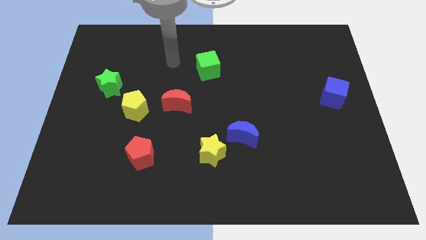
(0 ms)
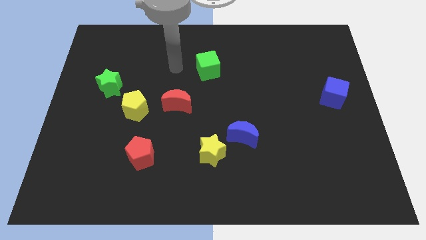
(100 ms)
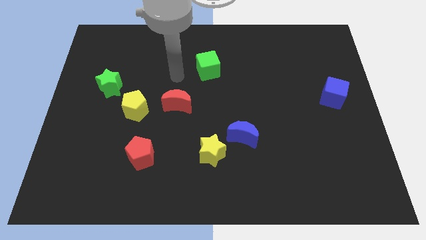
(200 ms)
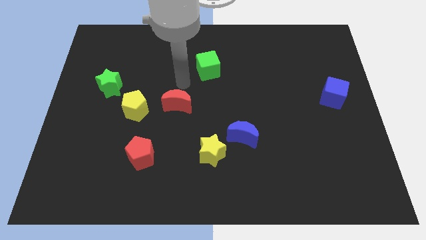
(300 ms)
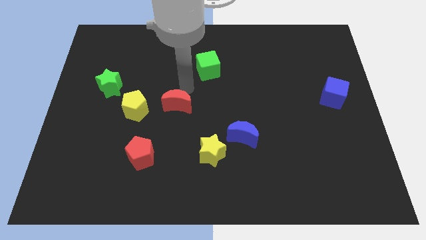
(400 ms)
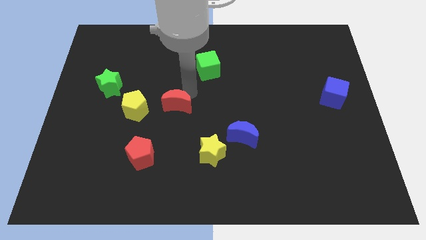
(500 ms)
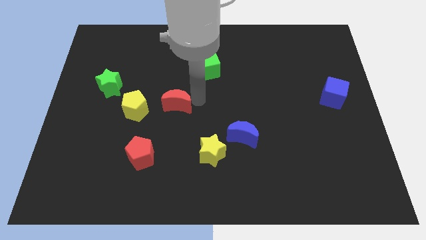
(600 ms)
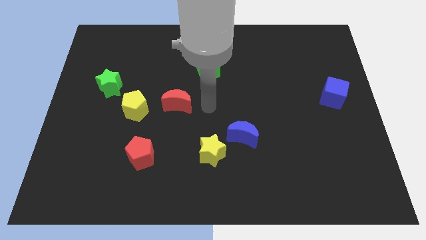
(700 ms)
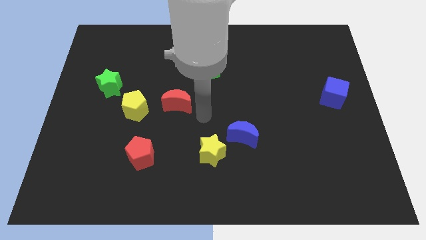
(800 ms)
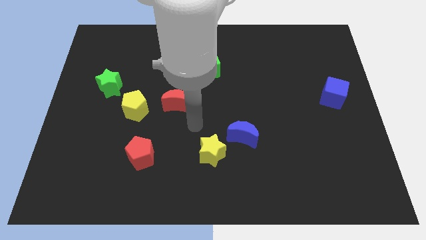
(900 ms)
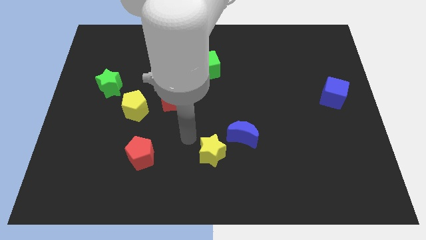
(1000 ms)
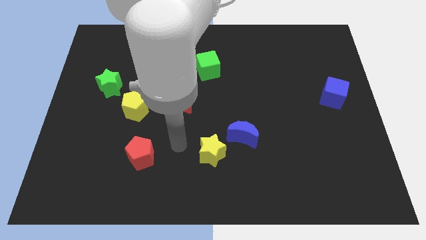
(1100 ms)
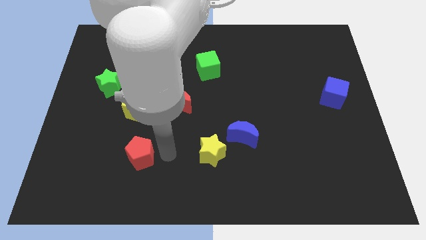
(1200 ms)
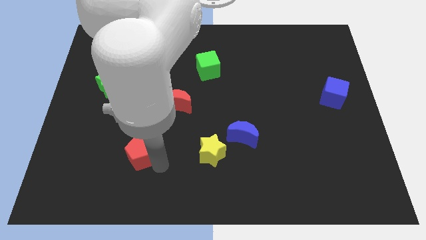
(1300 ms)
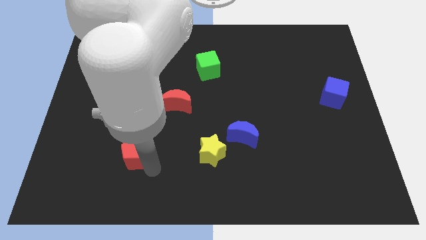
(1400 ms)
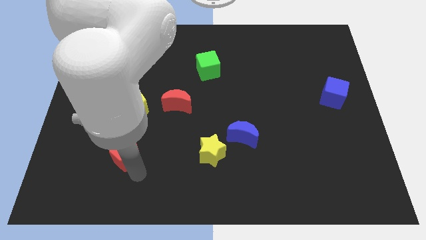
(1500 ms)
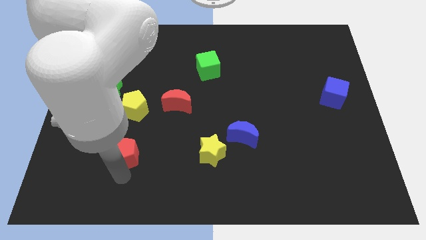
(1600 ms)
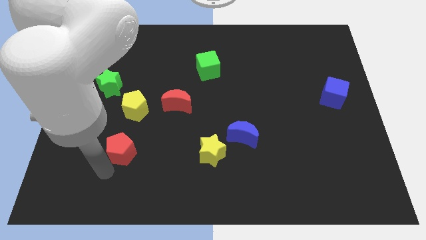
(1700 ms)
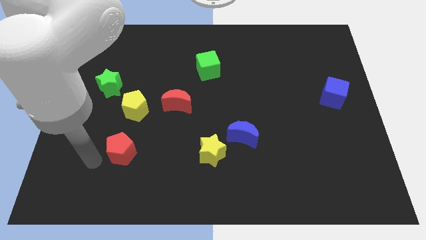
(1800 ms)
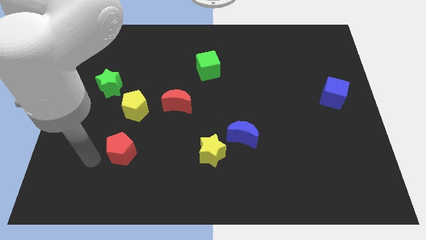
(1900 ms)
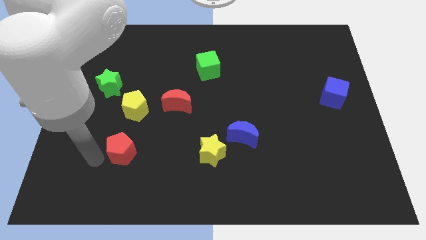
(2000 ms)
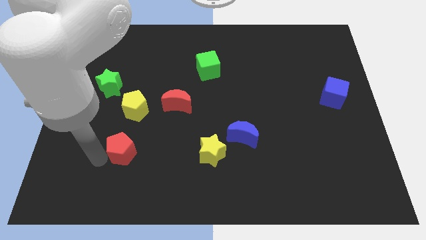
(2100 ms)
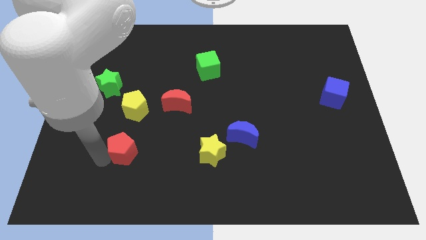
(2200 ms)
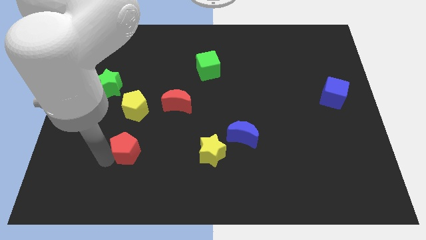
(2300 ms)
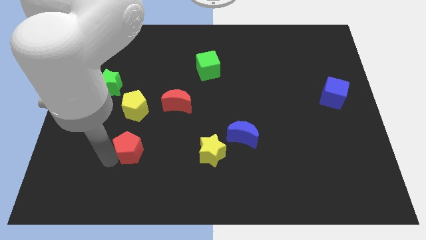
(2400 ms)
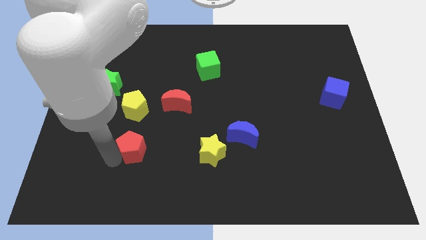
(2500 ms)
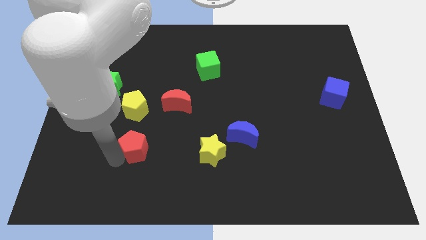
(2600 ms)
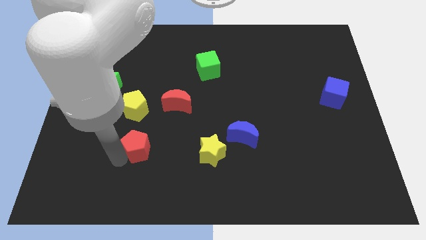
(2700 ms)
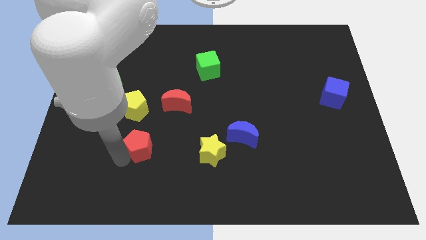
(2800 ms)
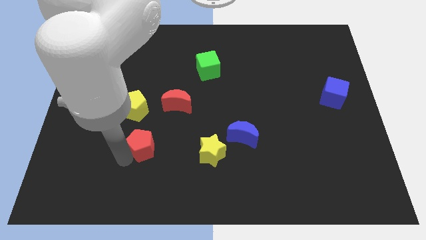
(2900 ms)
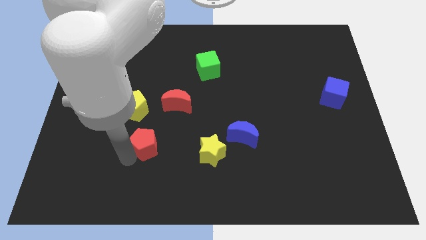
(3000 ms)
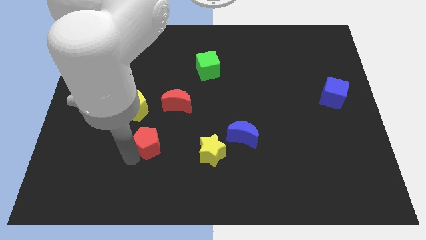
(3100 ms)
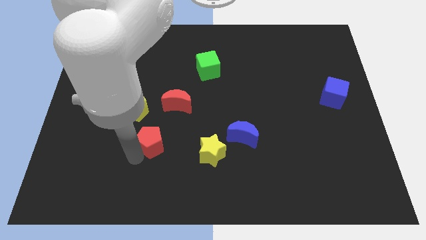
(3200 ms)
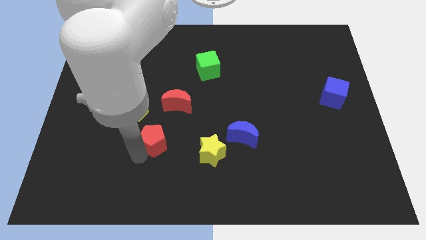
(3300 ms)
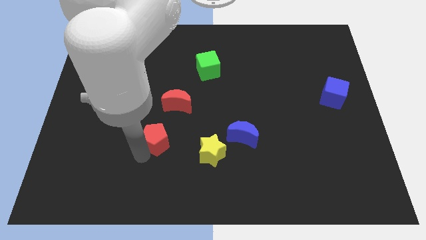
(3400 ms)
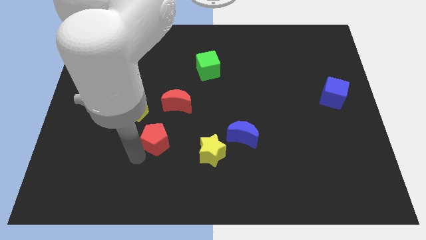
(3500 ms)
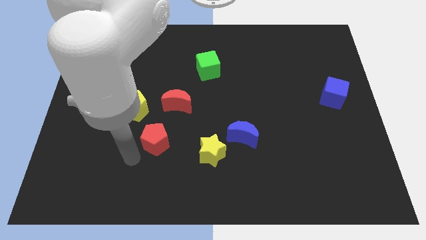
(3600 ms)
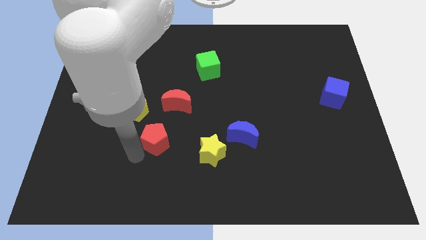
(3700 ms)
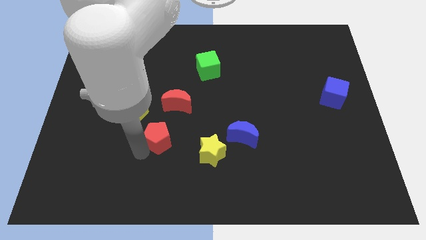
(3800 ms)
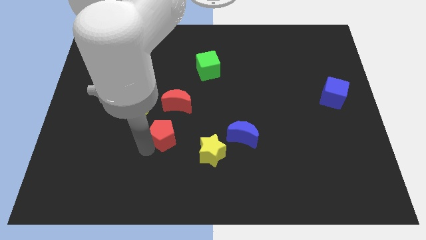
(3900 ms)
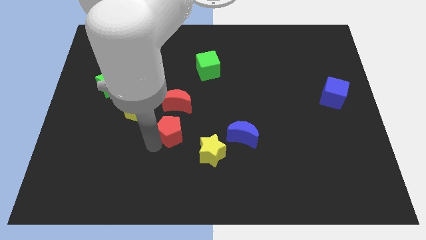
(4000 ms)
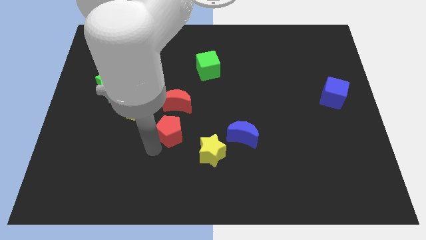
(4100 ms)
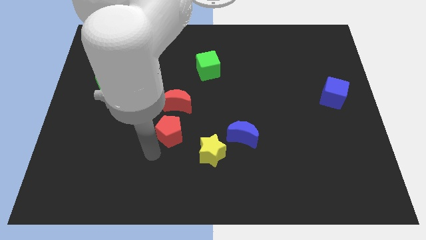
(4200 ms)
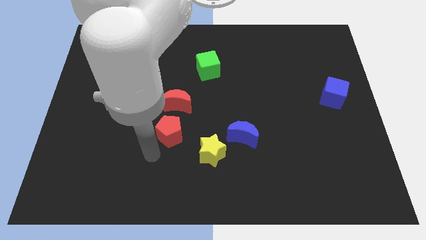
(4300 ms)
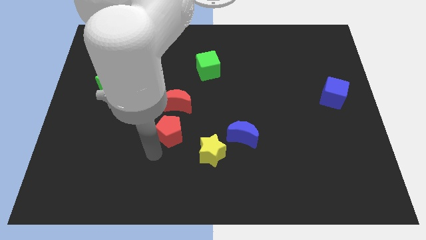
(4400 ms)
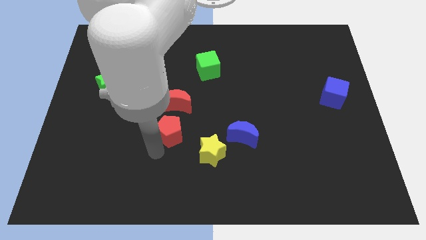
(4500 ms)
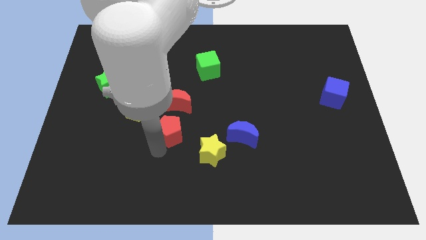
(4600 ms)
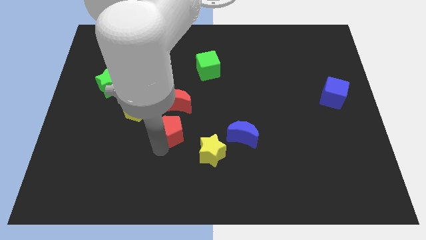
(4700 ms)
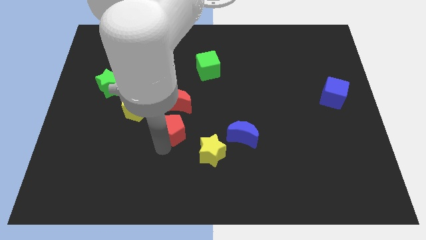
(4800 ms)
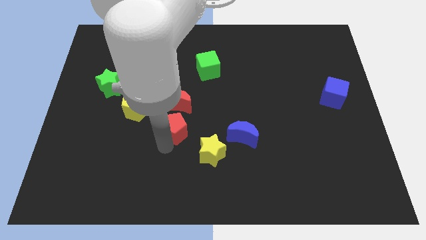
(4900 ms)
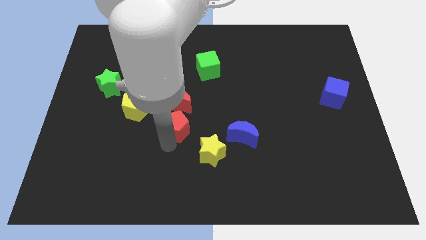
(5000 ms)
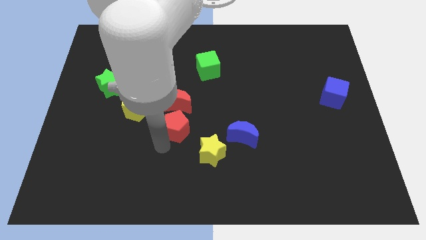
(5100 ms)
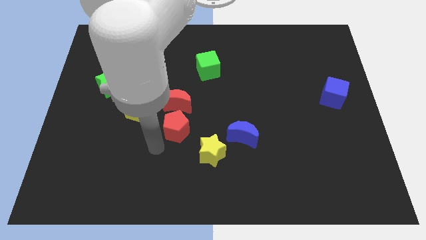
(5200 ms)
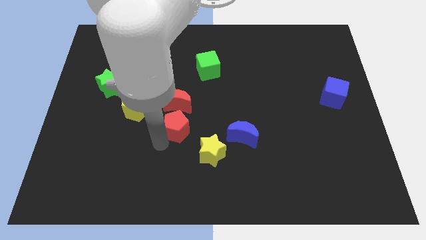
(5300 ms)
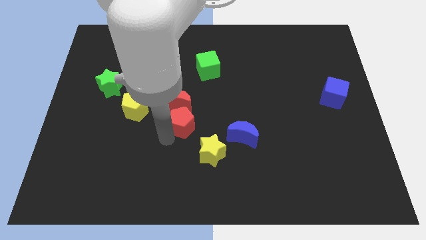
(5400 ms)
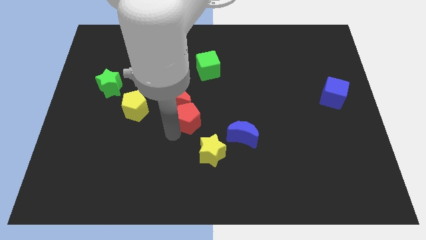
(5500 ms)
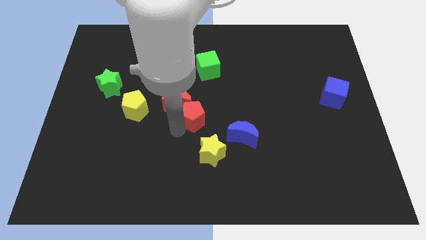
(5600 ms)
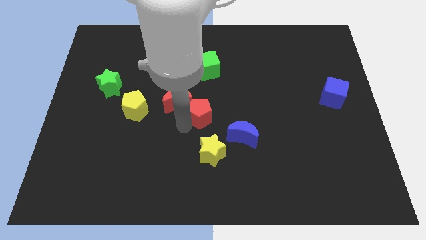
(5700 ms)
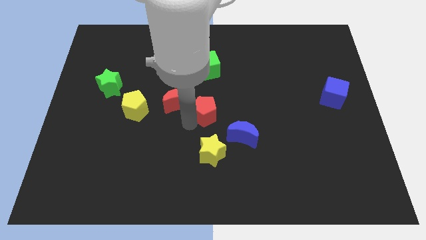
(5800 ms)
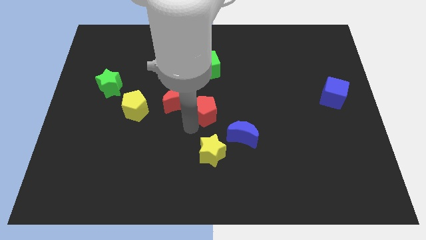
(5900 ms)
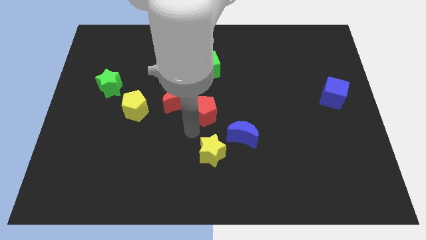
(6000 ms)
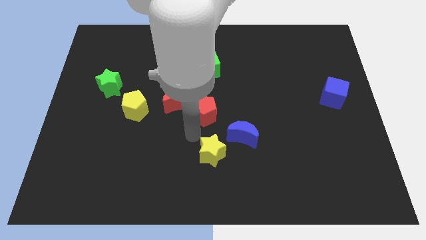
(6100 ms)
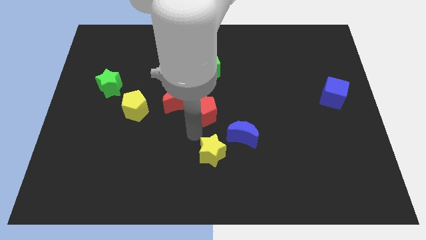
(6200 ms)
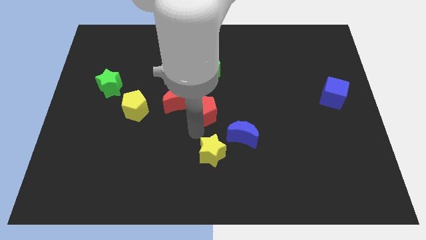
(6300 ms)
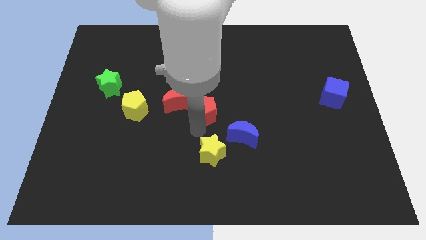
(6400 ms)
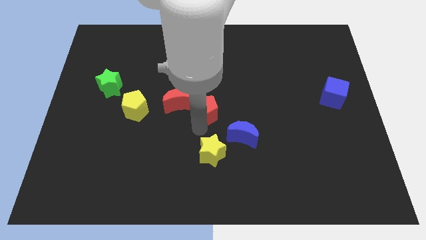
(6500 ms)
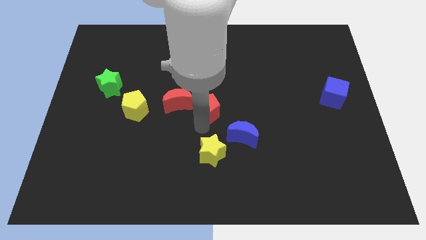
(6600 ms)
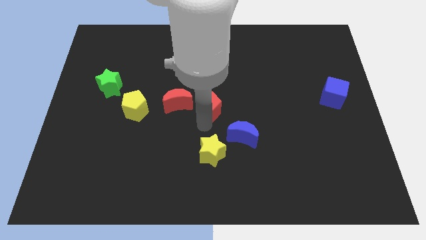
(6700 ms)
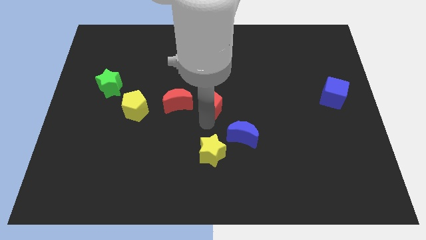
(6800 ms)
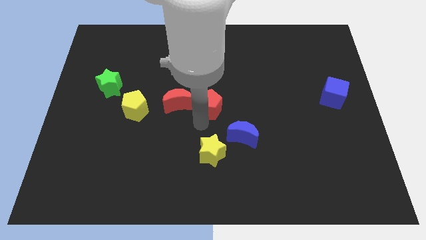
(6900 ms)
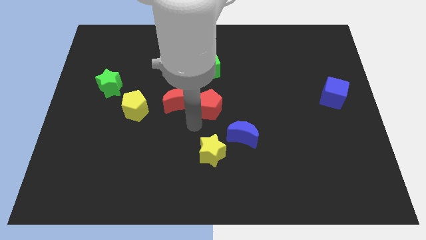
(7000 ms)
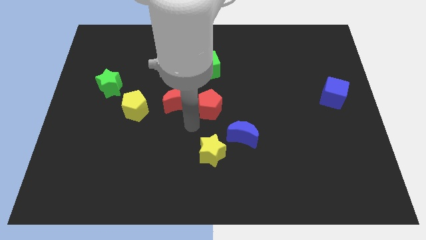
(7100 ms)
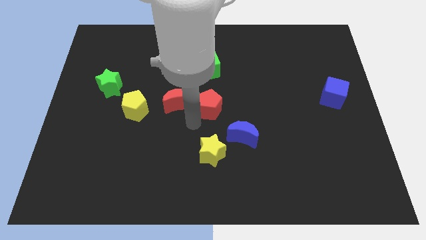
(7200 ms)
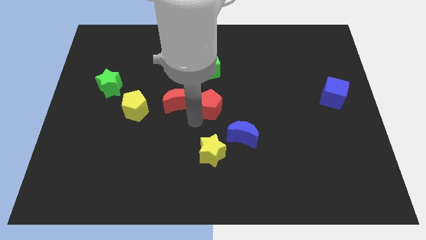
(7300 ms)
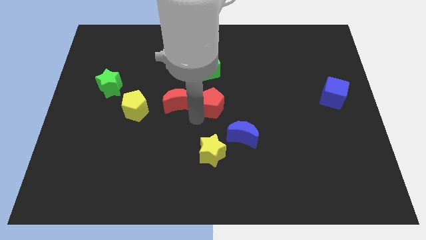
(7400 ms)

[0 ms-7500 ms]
slide the red pentagon diagonally upwards and to the right

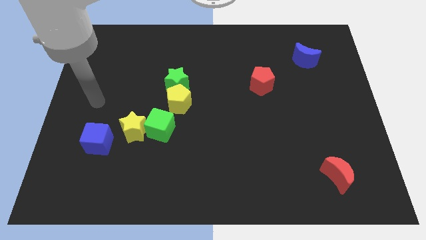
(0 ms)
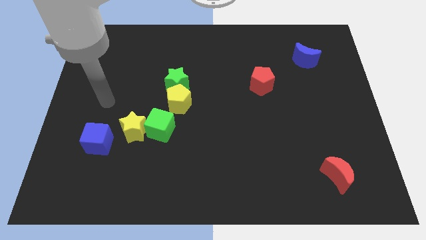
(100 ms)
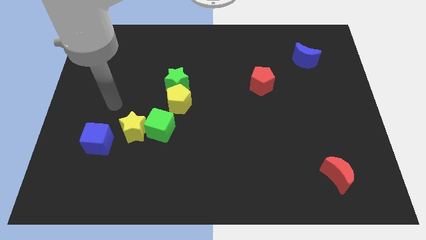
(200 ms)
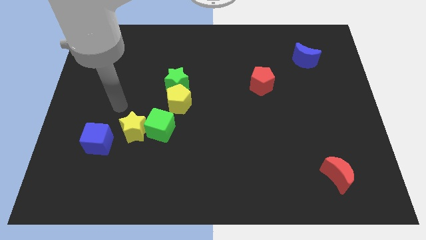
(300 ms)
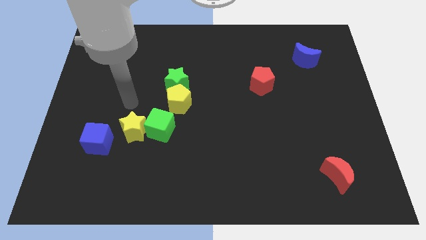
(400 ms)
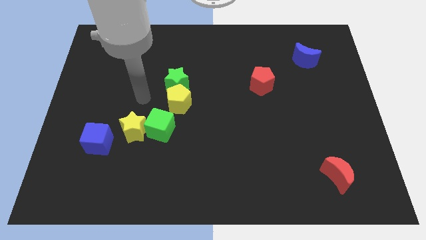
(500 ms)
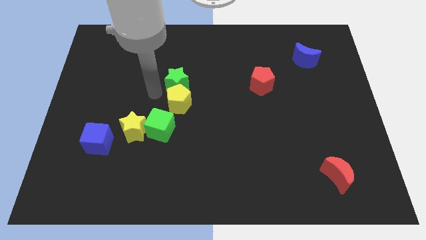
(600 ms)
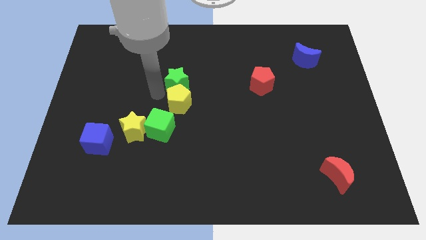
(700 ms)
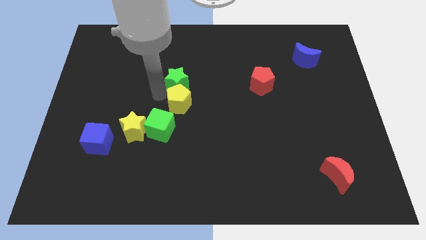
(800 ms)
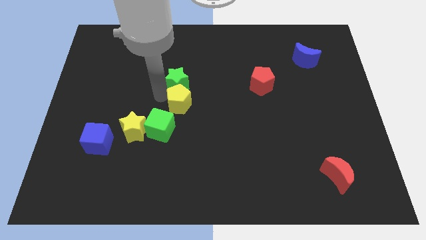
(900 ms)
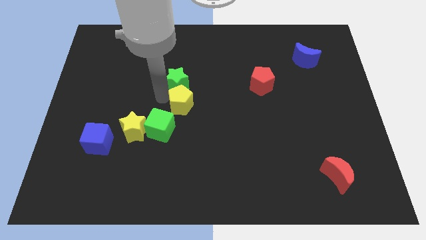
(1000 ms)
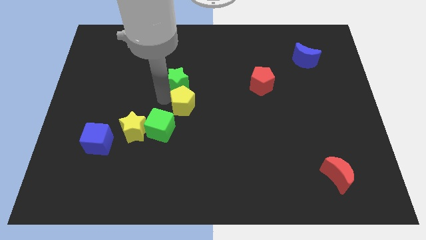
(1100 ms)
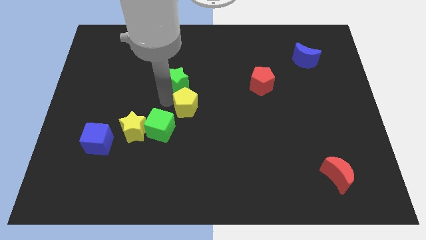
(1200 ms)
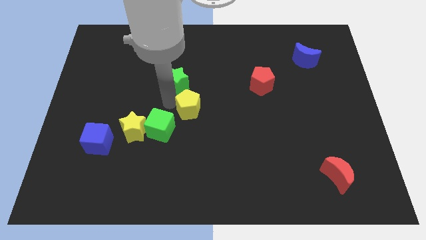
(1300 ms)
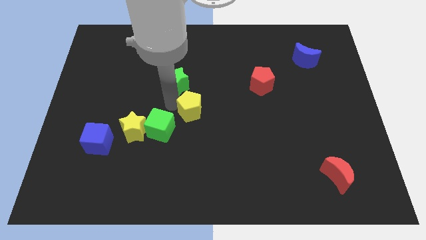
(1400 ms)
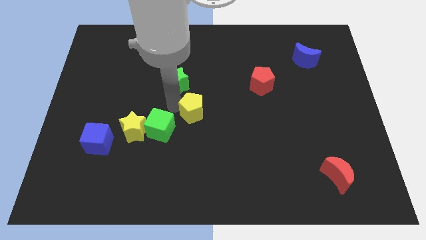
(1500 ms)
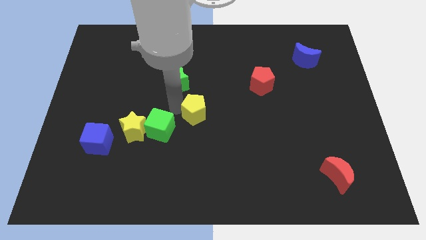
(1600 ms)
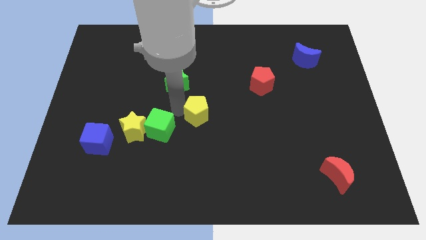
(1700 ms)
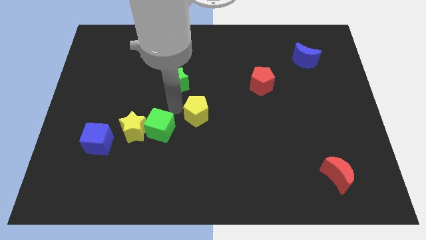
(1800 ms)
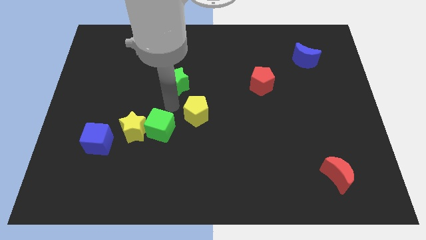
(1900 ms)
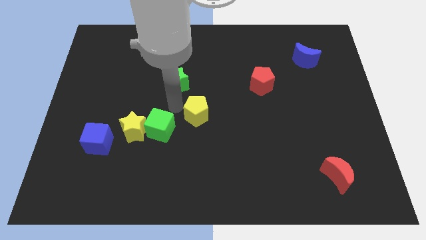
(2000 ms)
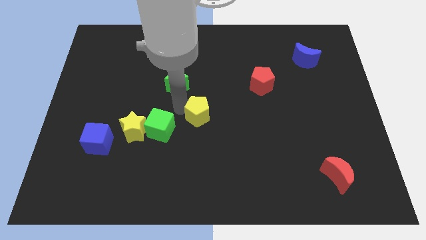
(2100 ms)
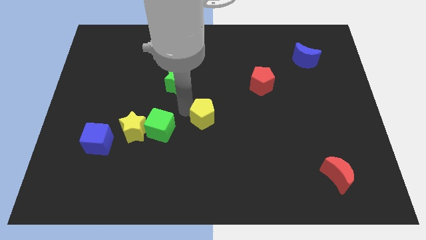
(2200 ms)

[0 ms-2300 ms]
slightly move the yellow pentagon downwards and right
